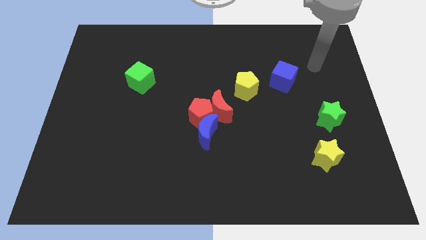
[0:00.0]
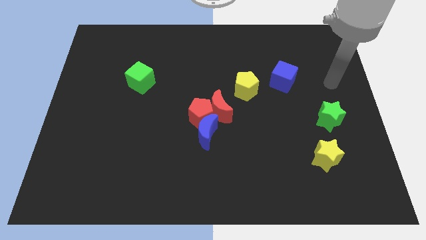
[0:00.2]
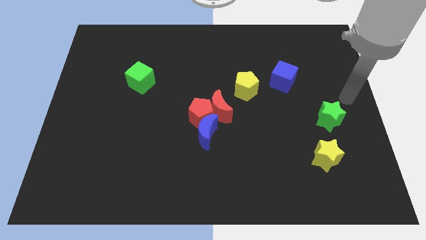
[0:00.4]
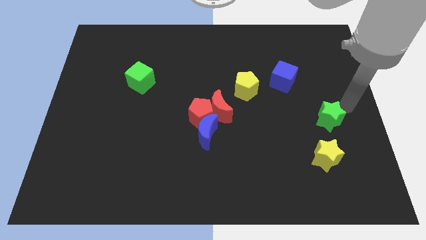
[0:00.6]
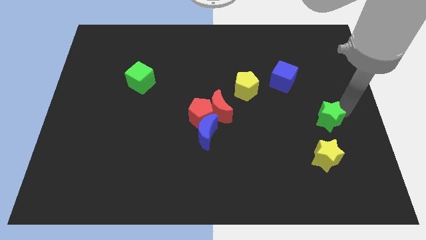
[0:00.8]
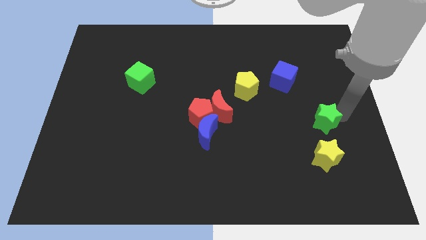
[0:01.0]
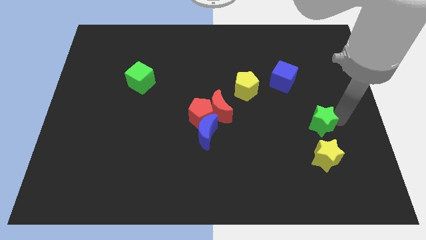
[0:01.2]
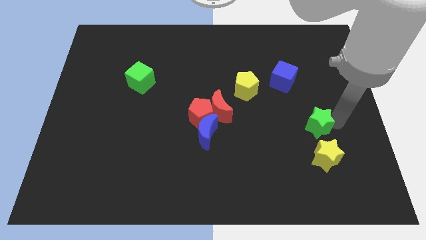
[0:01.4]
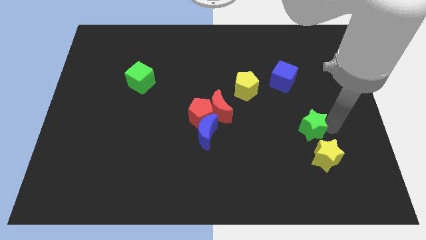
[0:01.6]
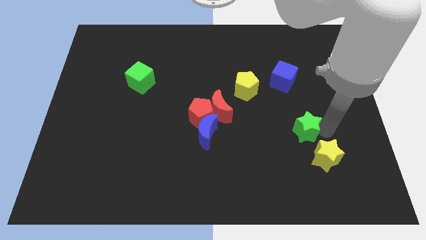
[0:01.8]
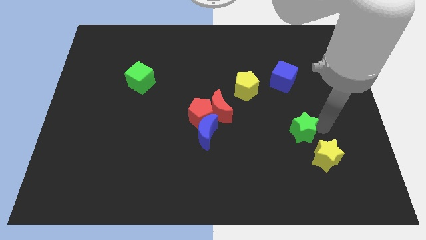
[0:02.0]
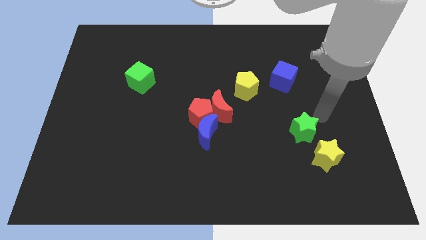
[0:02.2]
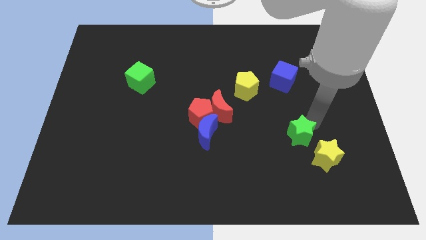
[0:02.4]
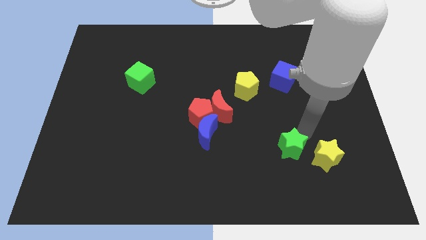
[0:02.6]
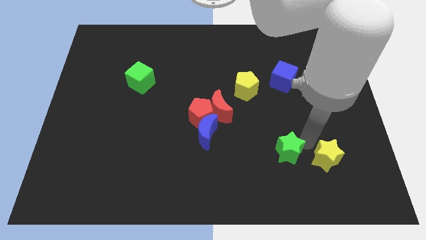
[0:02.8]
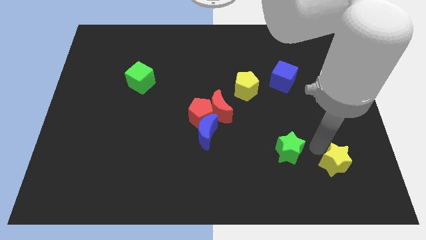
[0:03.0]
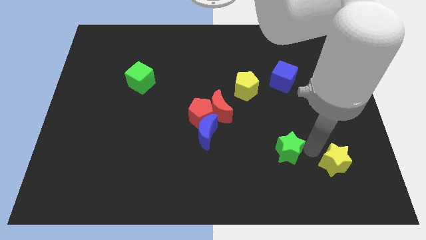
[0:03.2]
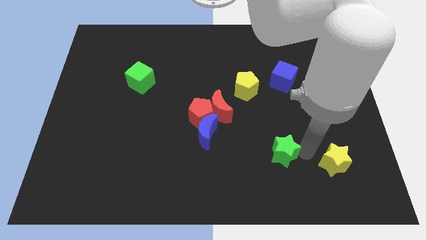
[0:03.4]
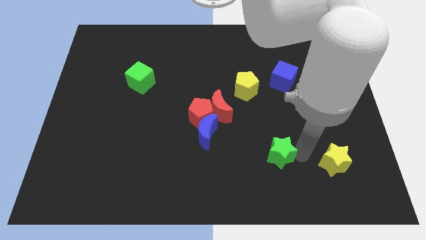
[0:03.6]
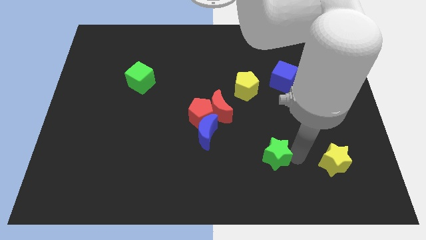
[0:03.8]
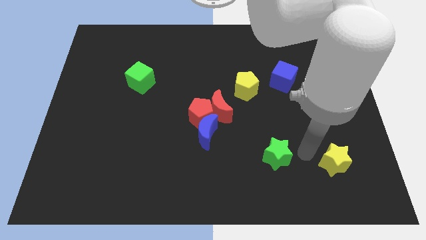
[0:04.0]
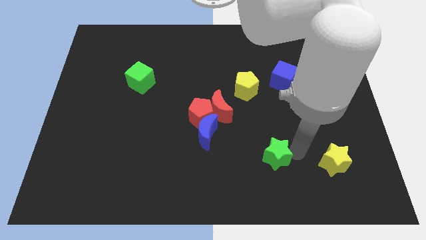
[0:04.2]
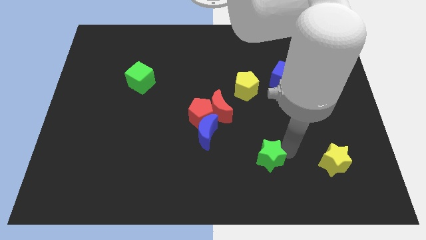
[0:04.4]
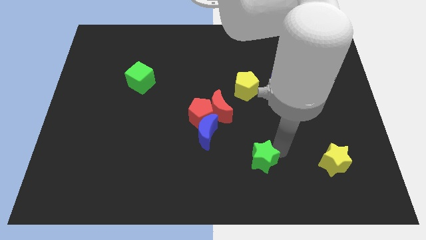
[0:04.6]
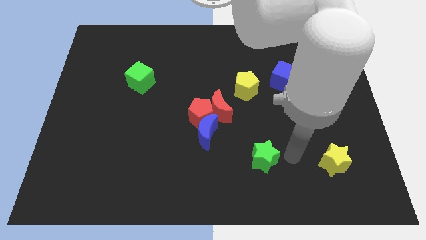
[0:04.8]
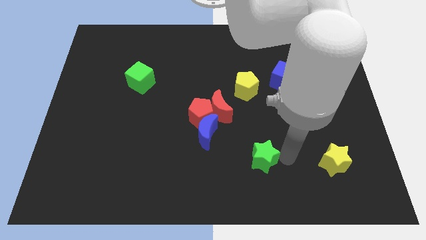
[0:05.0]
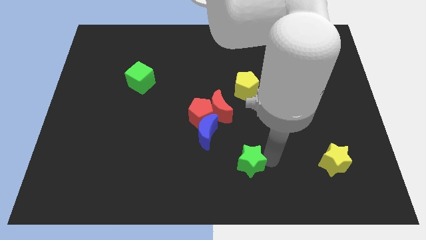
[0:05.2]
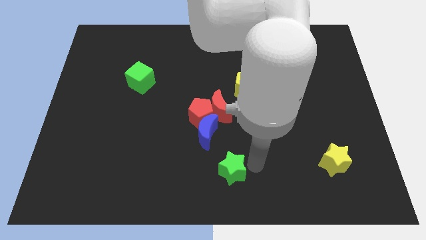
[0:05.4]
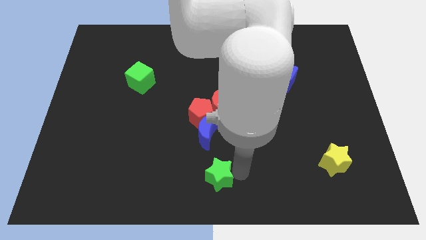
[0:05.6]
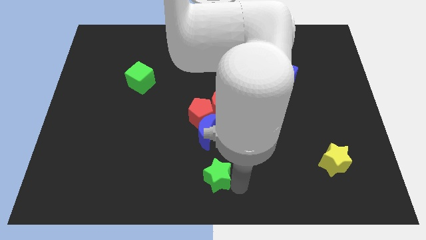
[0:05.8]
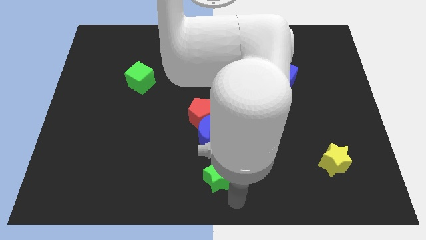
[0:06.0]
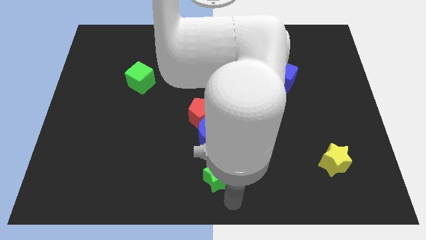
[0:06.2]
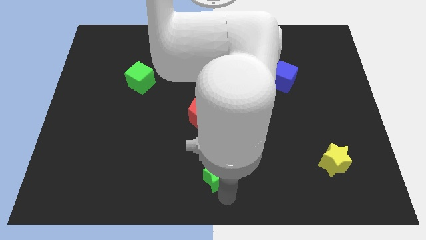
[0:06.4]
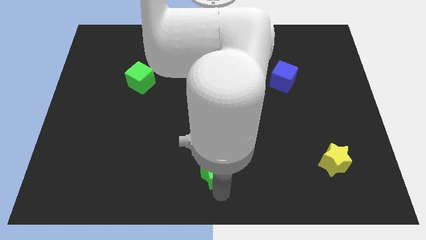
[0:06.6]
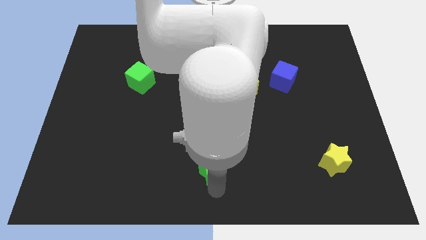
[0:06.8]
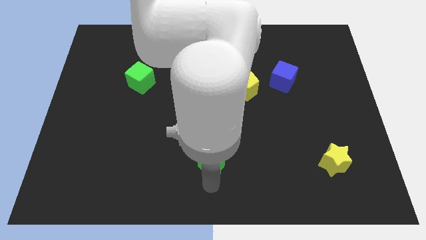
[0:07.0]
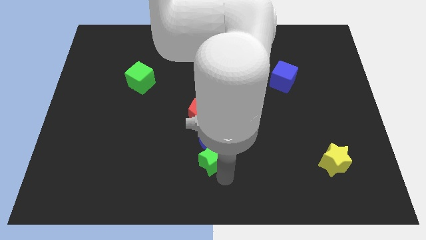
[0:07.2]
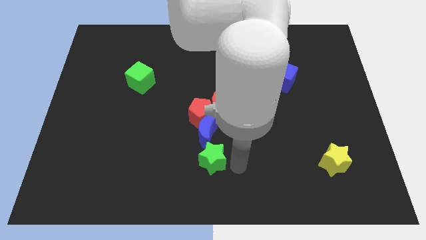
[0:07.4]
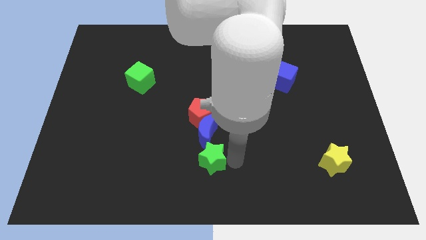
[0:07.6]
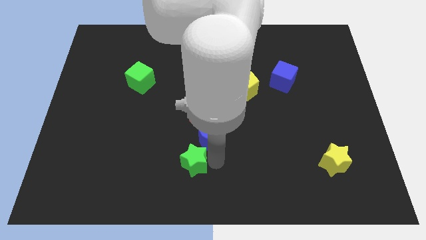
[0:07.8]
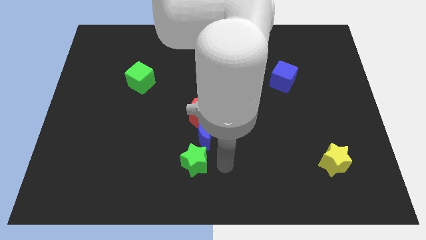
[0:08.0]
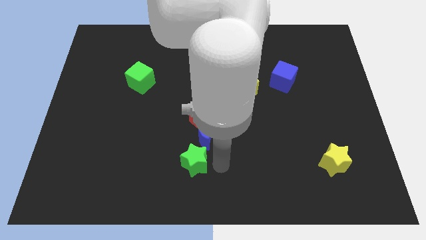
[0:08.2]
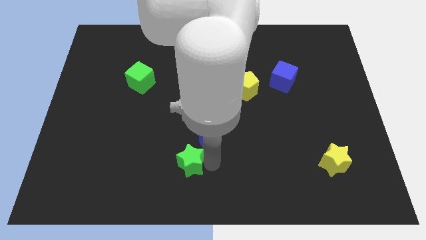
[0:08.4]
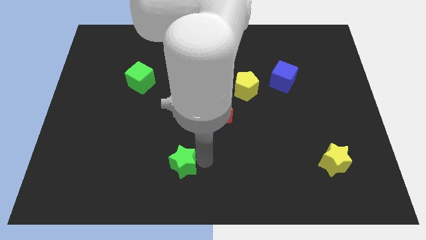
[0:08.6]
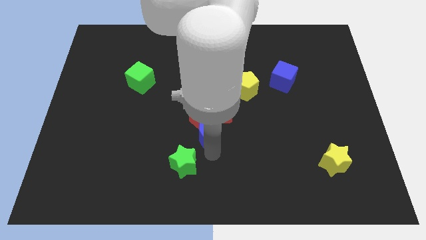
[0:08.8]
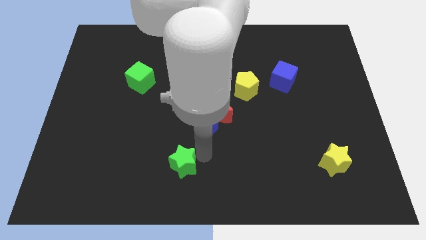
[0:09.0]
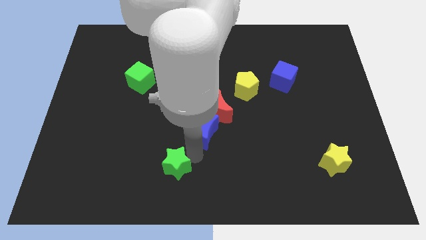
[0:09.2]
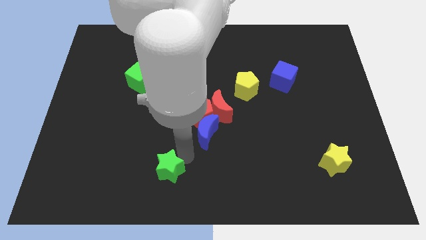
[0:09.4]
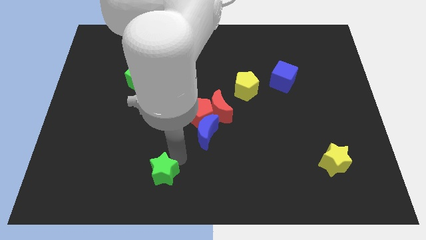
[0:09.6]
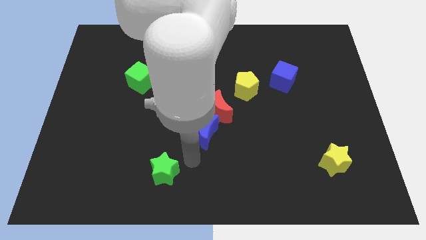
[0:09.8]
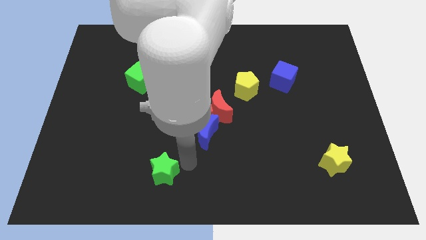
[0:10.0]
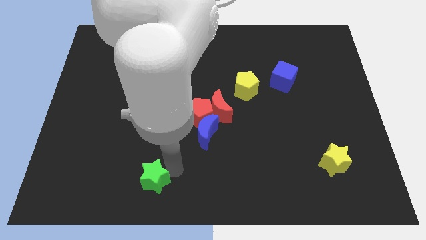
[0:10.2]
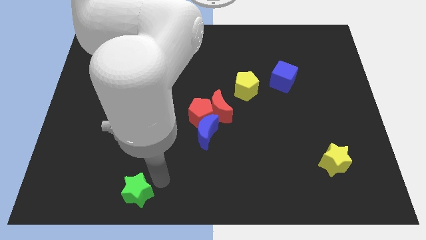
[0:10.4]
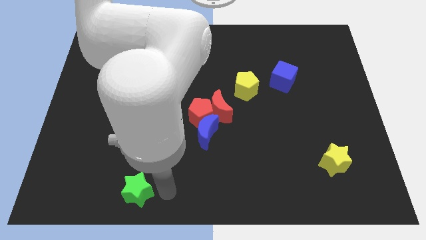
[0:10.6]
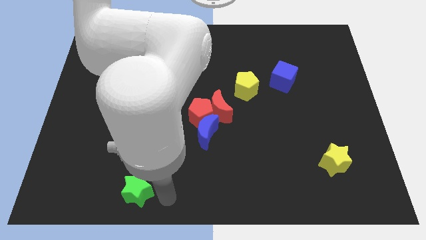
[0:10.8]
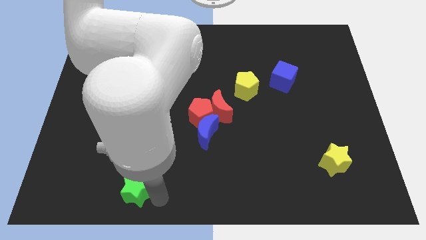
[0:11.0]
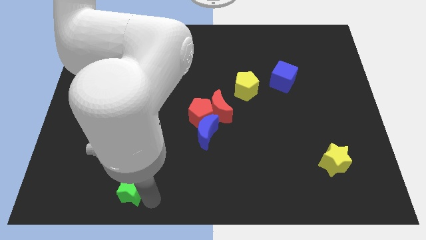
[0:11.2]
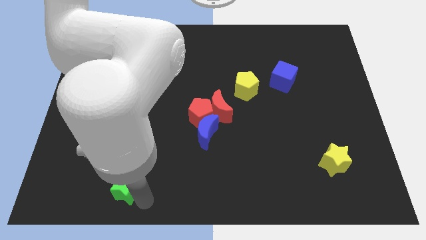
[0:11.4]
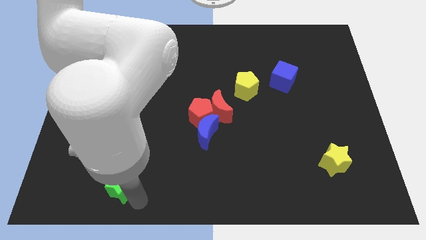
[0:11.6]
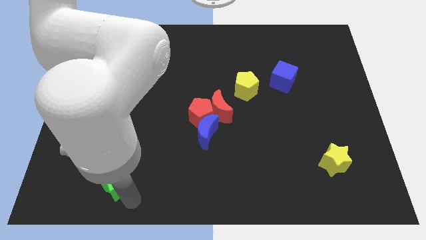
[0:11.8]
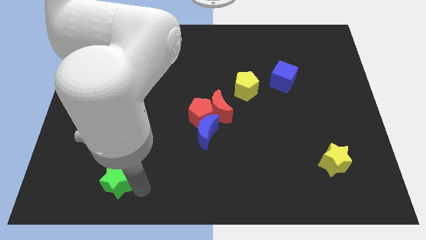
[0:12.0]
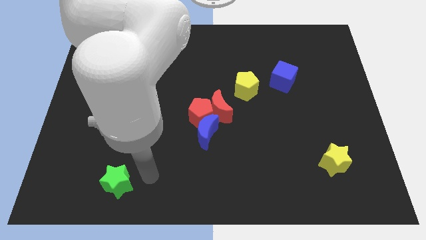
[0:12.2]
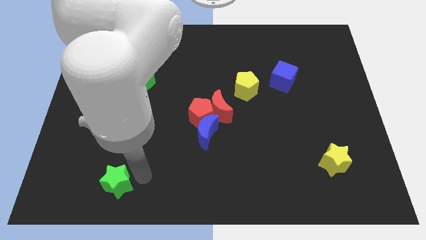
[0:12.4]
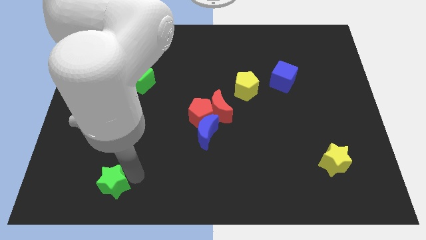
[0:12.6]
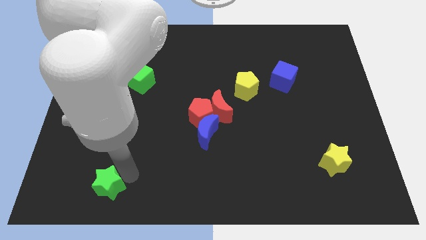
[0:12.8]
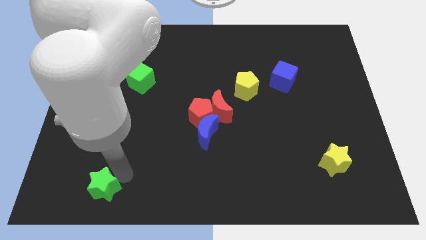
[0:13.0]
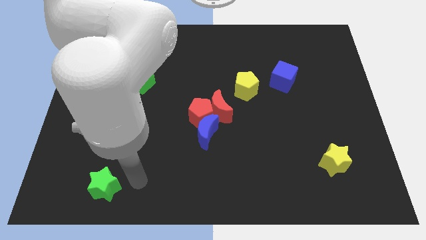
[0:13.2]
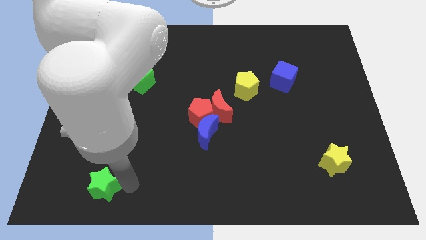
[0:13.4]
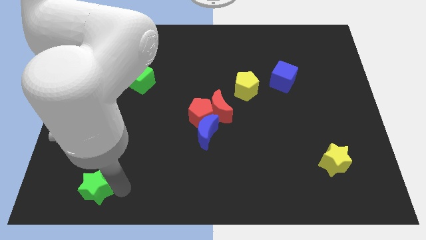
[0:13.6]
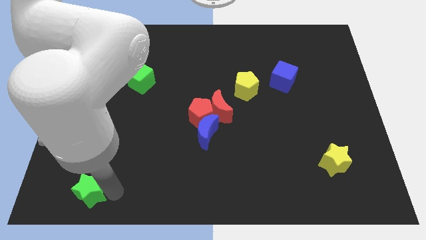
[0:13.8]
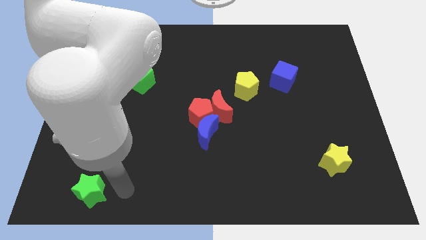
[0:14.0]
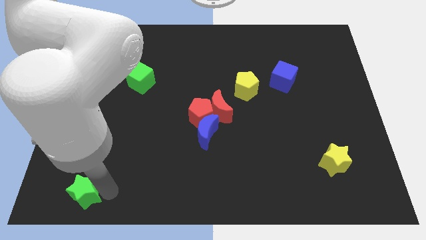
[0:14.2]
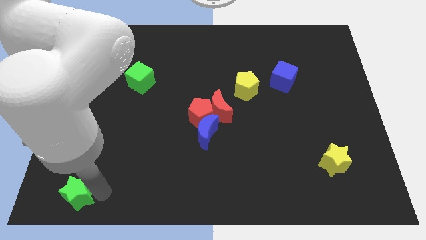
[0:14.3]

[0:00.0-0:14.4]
put the green star to the bottom left corner
